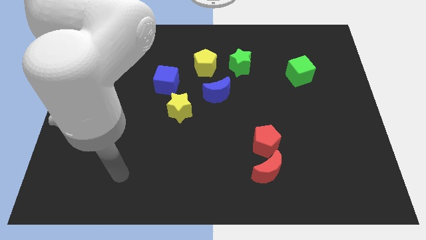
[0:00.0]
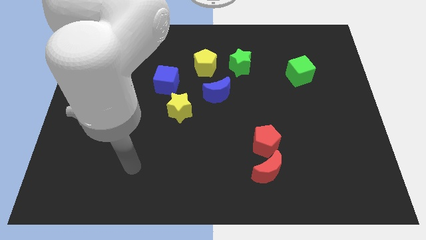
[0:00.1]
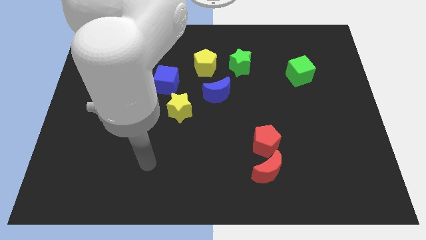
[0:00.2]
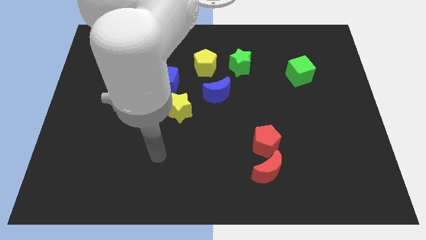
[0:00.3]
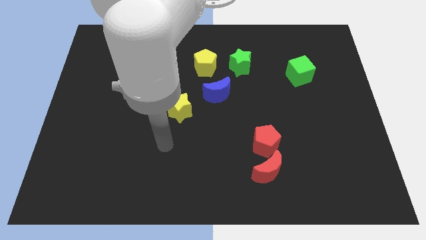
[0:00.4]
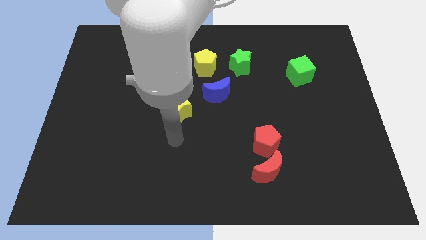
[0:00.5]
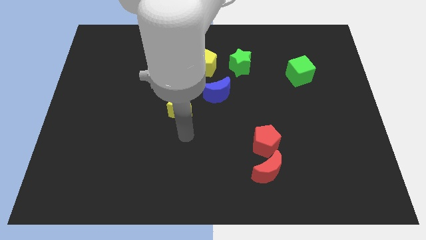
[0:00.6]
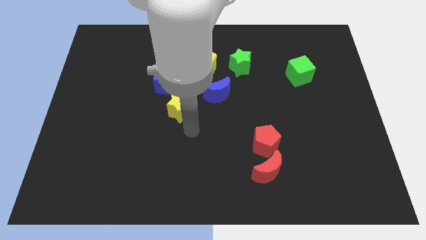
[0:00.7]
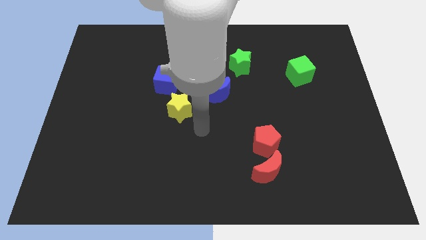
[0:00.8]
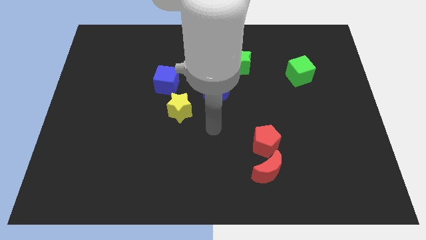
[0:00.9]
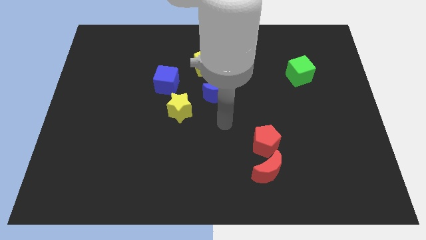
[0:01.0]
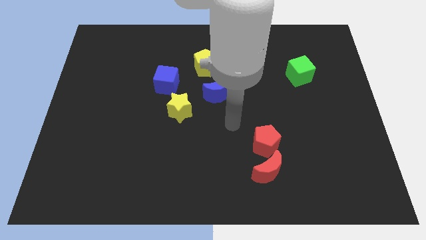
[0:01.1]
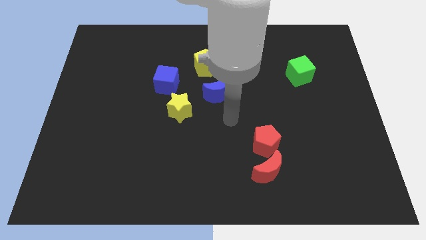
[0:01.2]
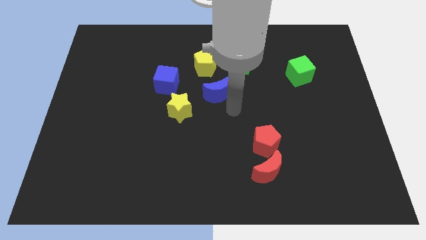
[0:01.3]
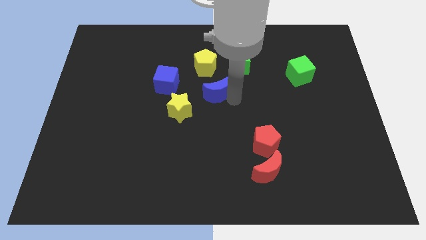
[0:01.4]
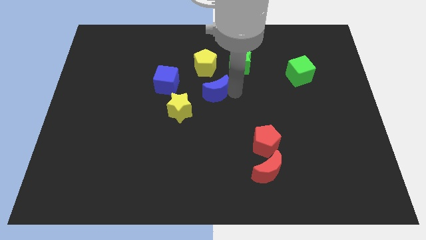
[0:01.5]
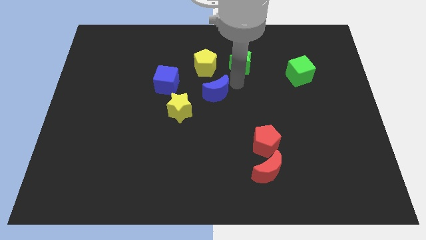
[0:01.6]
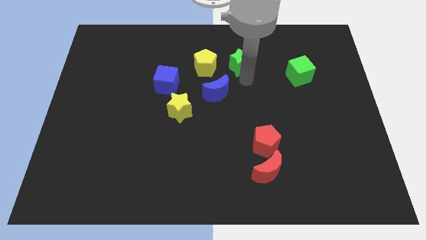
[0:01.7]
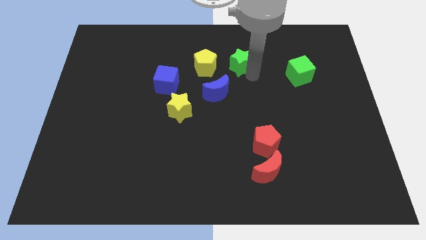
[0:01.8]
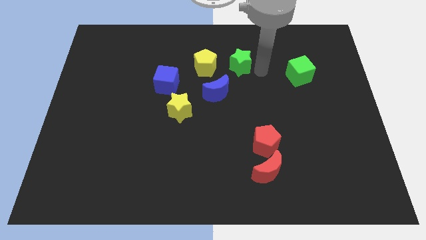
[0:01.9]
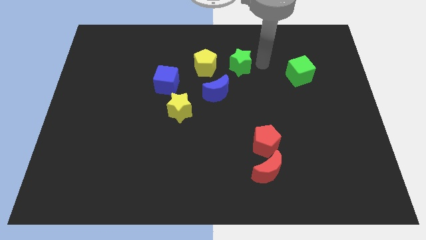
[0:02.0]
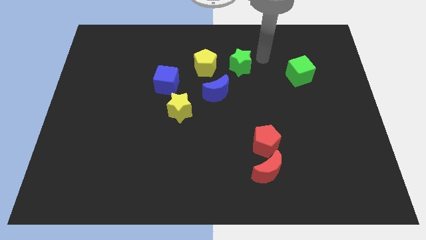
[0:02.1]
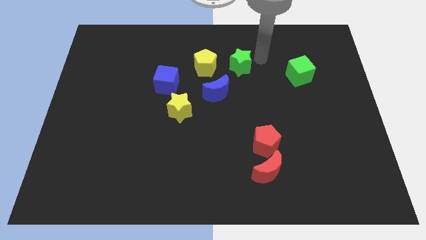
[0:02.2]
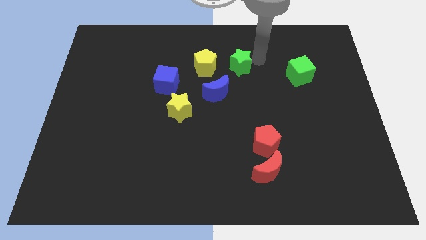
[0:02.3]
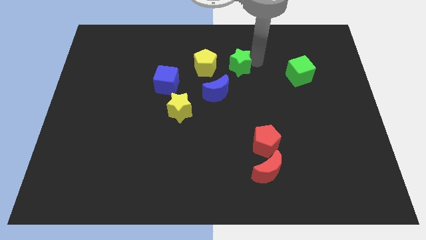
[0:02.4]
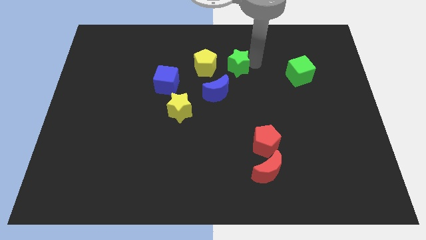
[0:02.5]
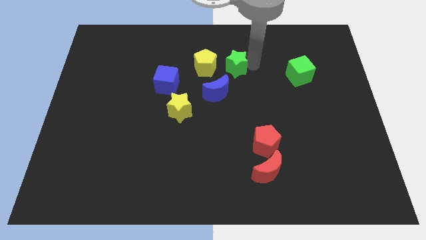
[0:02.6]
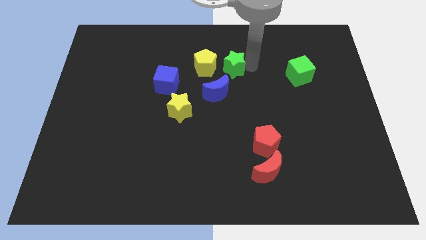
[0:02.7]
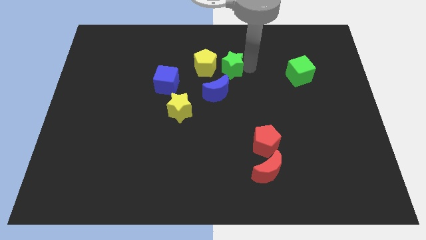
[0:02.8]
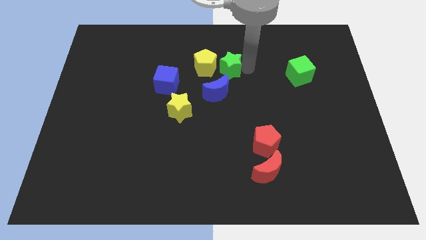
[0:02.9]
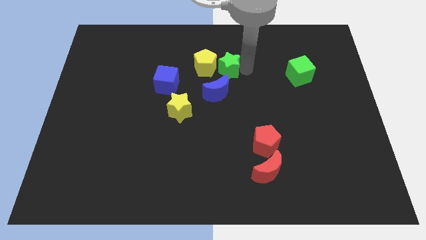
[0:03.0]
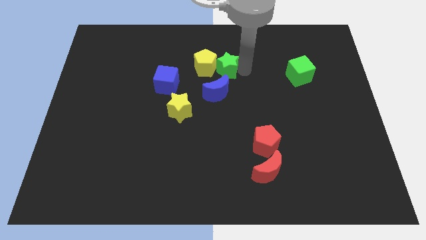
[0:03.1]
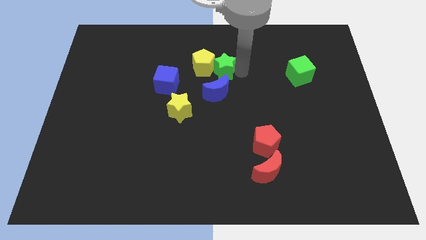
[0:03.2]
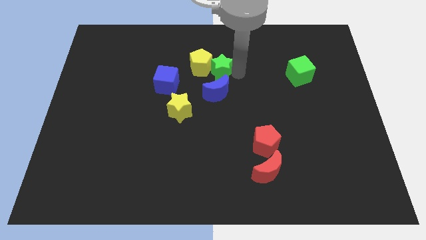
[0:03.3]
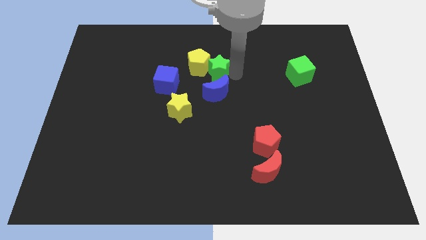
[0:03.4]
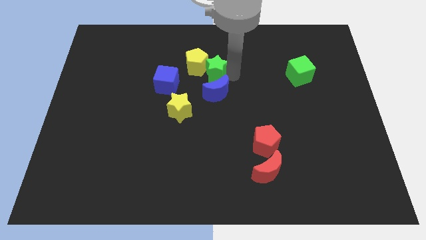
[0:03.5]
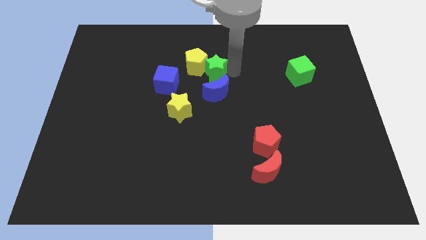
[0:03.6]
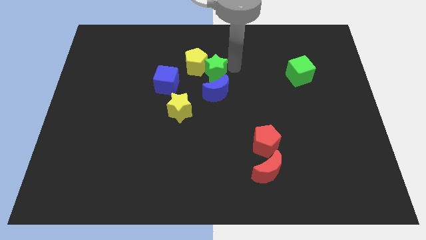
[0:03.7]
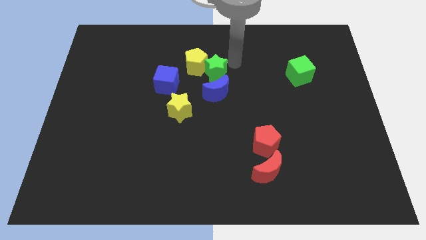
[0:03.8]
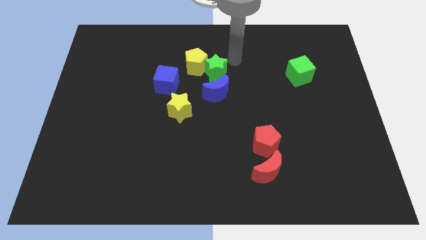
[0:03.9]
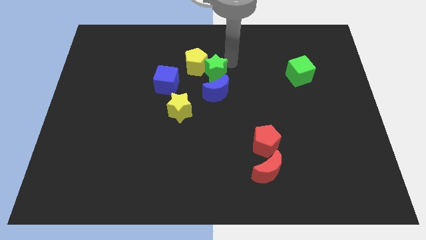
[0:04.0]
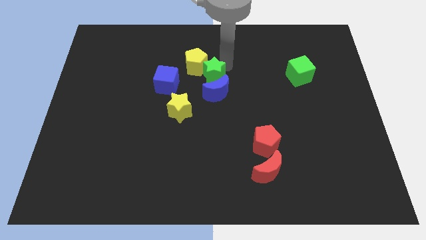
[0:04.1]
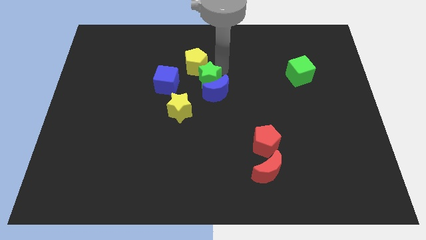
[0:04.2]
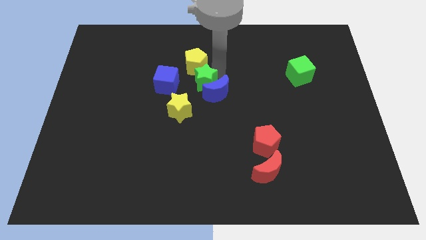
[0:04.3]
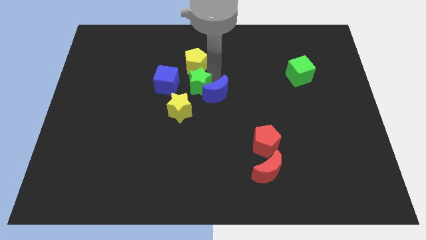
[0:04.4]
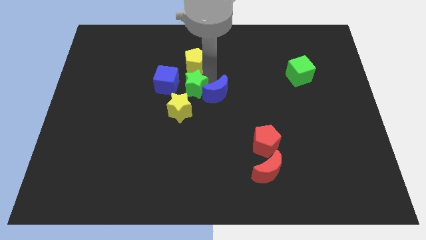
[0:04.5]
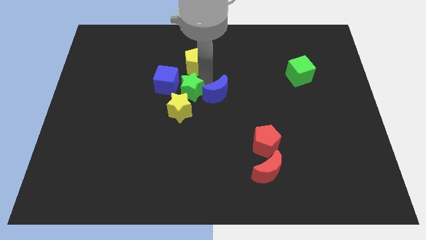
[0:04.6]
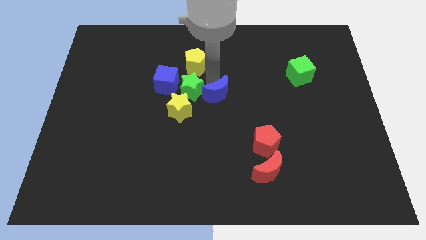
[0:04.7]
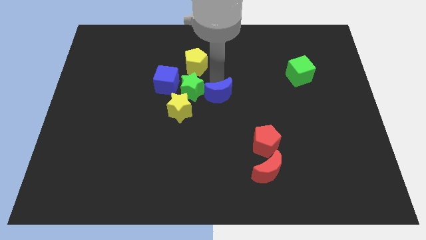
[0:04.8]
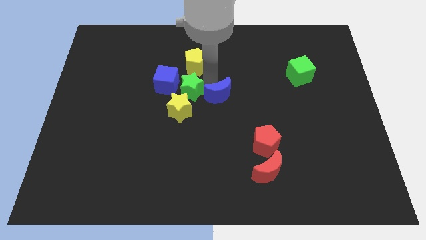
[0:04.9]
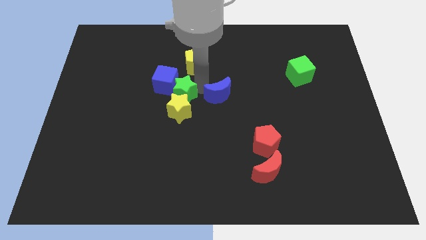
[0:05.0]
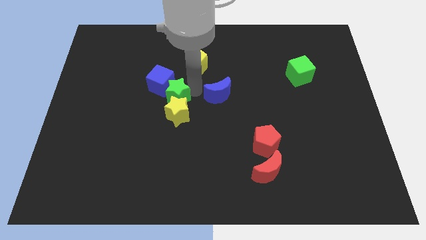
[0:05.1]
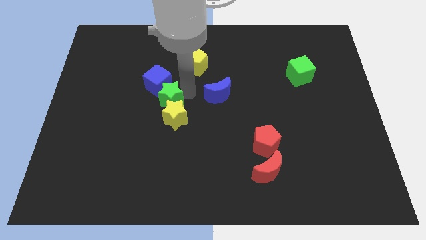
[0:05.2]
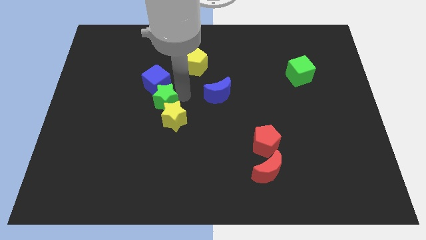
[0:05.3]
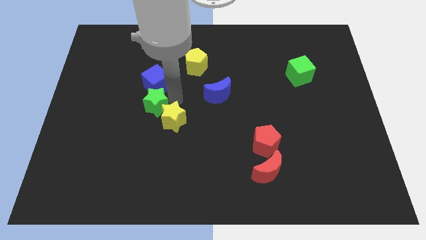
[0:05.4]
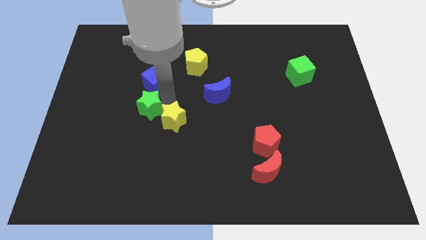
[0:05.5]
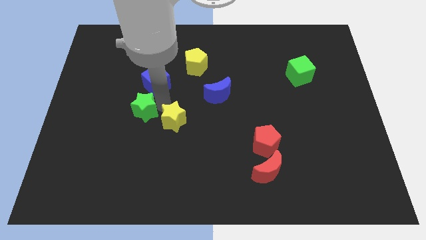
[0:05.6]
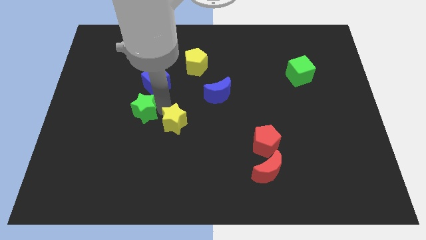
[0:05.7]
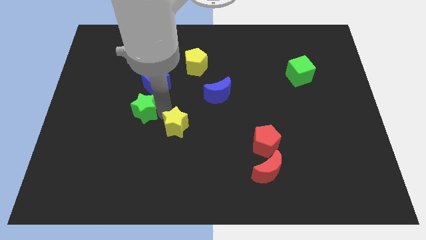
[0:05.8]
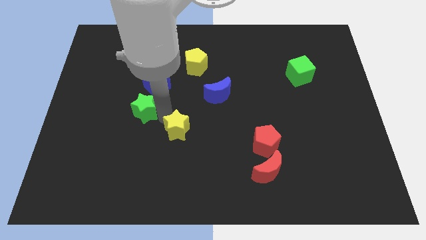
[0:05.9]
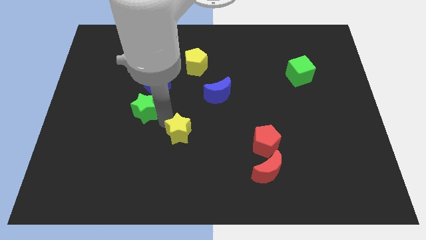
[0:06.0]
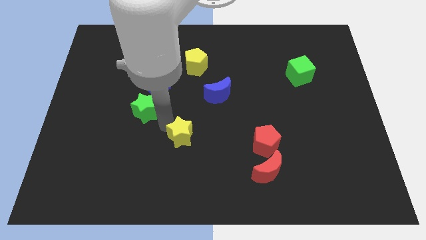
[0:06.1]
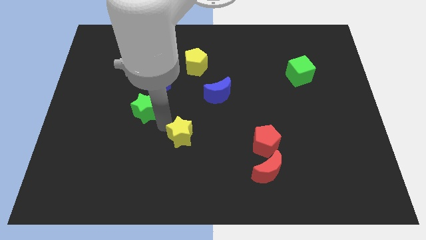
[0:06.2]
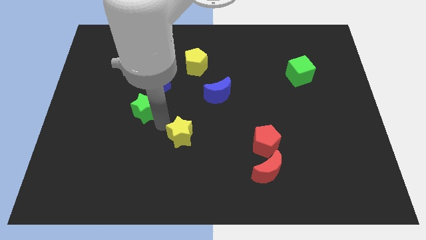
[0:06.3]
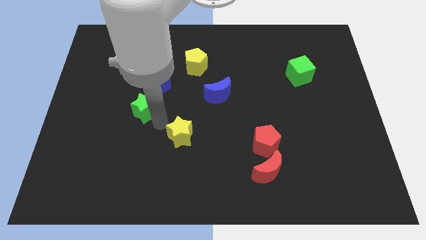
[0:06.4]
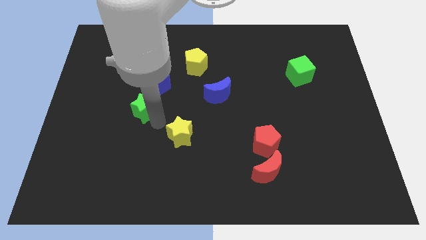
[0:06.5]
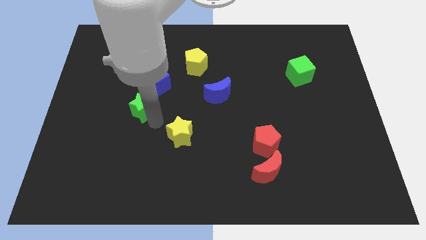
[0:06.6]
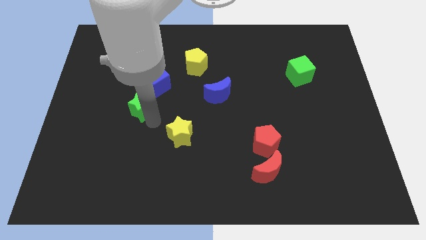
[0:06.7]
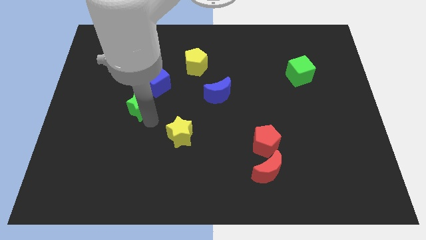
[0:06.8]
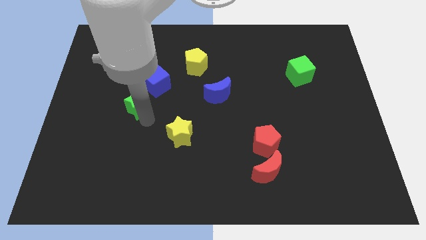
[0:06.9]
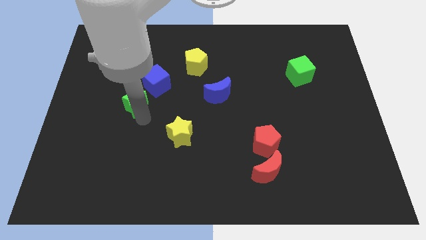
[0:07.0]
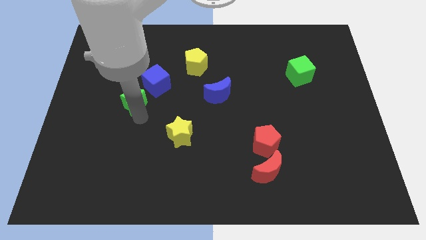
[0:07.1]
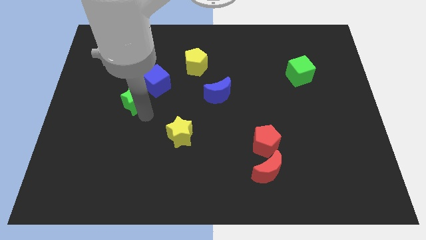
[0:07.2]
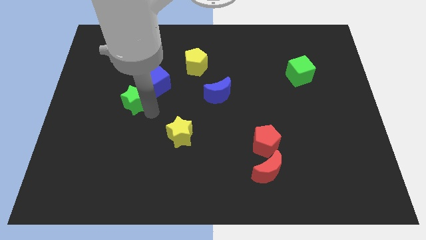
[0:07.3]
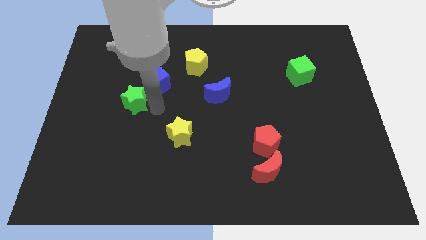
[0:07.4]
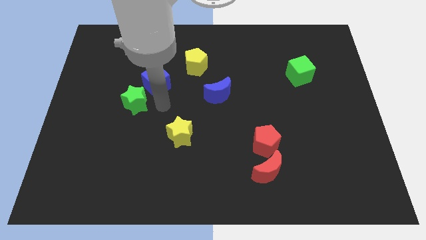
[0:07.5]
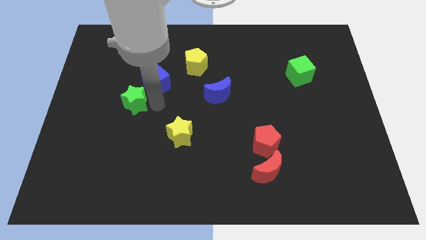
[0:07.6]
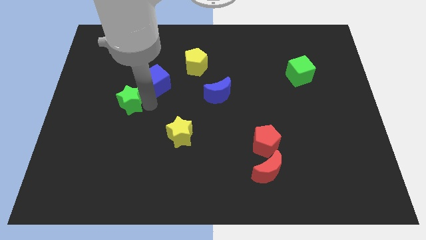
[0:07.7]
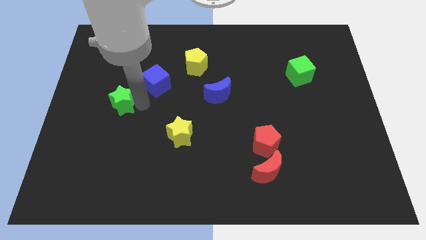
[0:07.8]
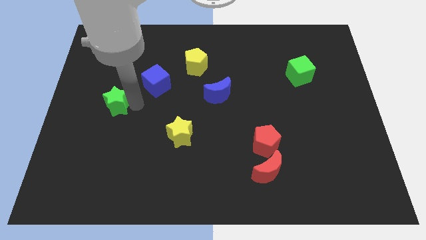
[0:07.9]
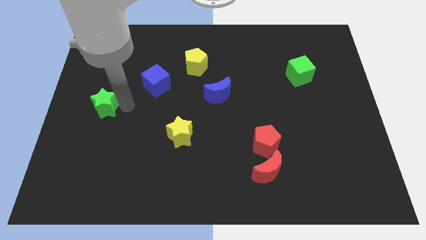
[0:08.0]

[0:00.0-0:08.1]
push the green star to the left side
